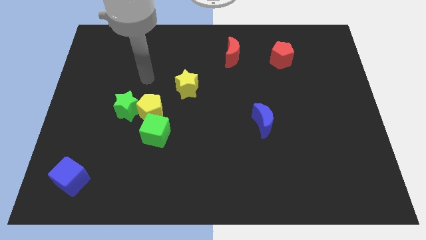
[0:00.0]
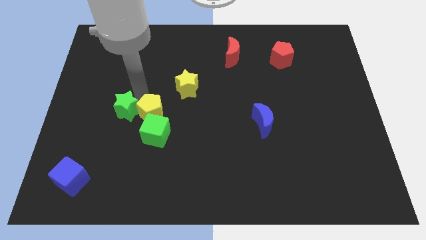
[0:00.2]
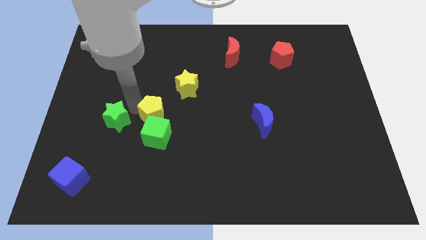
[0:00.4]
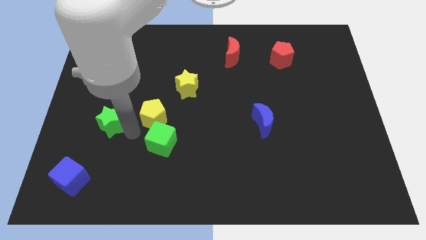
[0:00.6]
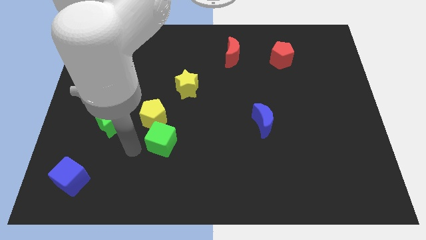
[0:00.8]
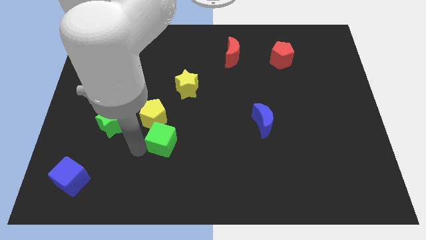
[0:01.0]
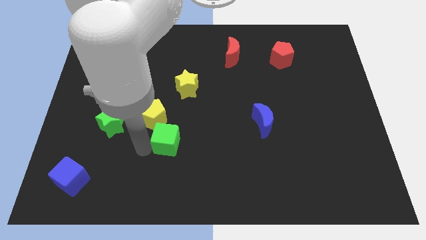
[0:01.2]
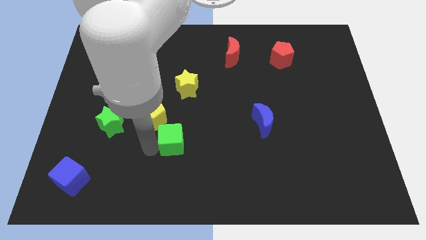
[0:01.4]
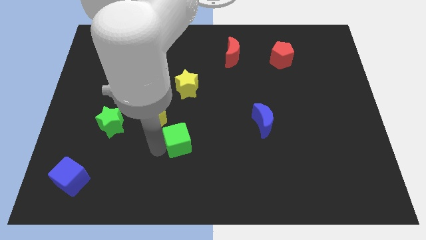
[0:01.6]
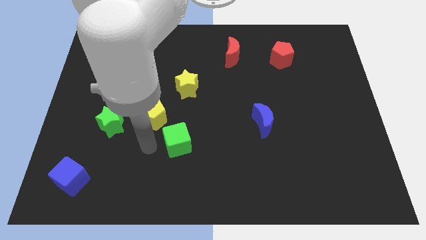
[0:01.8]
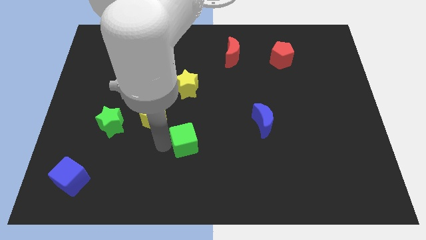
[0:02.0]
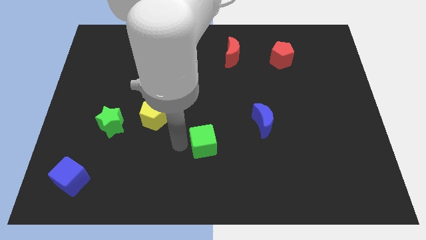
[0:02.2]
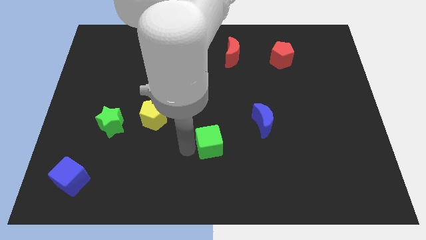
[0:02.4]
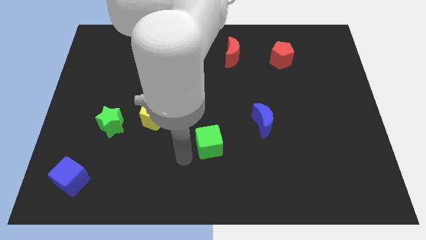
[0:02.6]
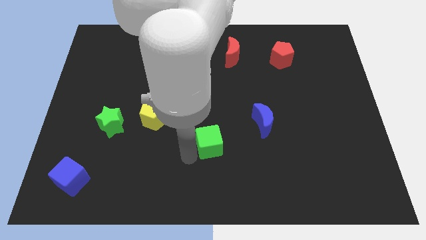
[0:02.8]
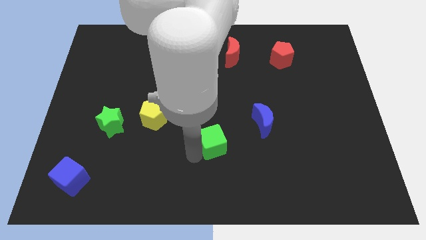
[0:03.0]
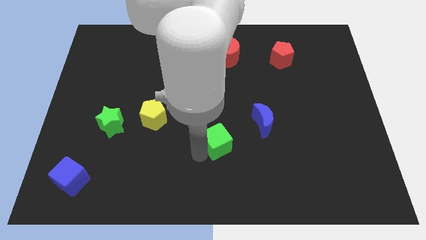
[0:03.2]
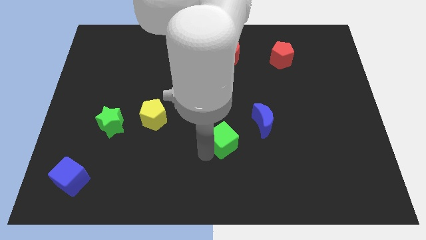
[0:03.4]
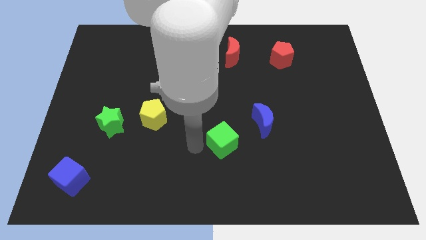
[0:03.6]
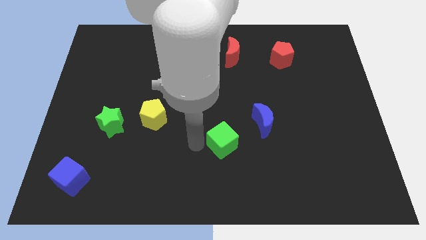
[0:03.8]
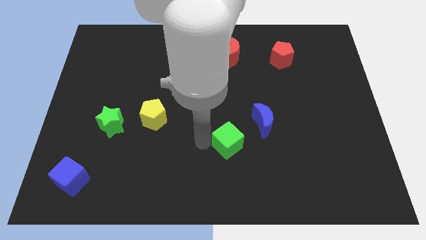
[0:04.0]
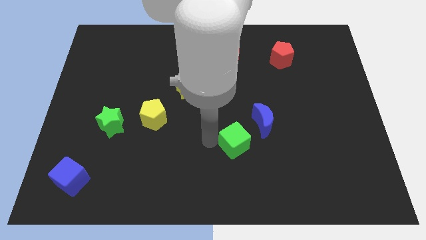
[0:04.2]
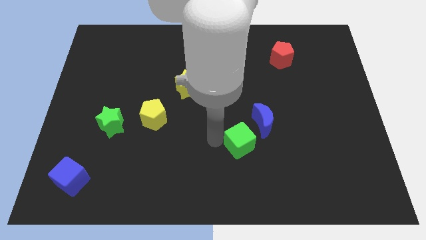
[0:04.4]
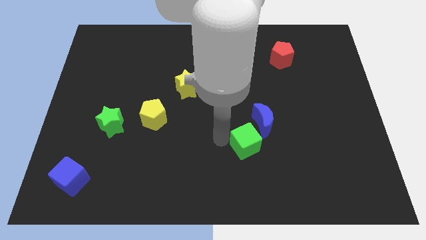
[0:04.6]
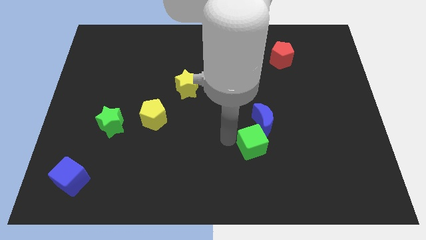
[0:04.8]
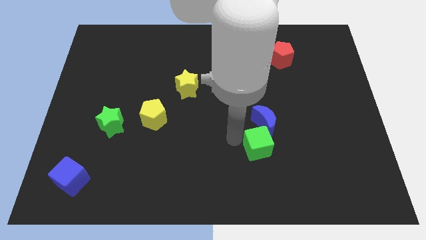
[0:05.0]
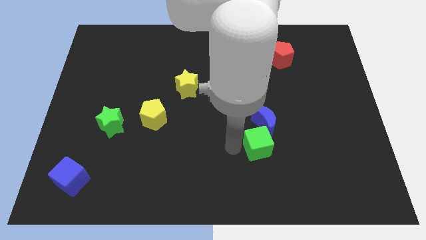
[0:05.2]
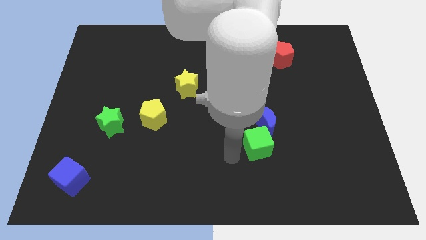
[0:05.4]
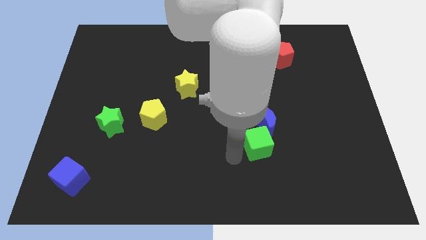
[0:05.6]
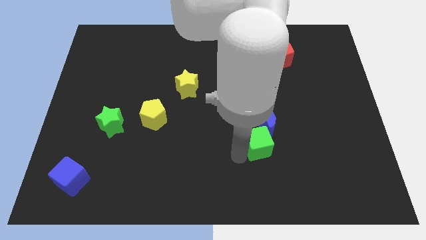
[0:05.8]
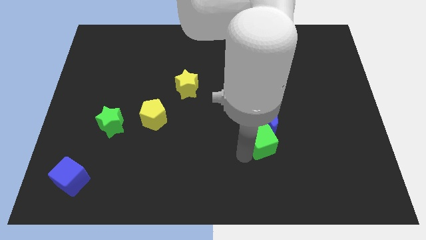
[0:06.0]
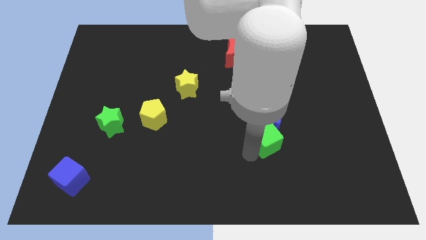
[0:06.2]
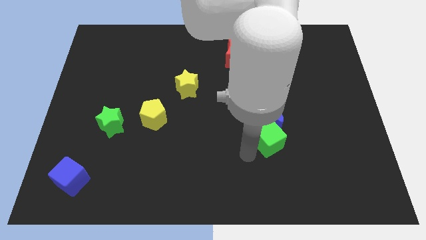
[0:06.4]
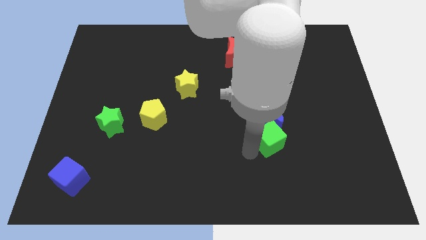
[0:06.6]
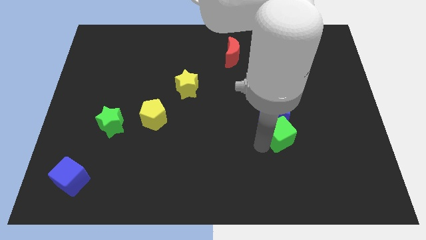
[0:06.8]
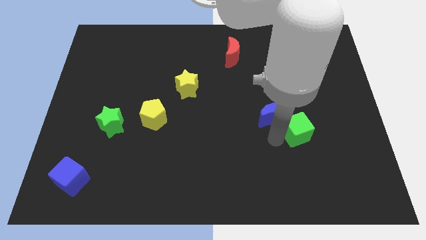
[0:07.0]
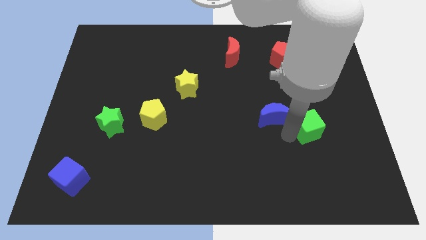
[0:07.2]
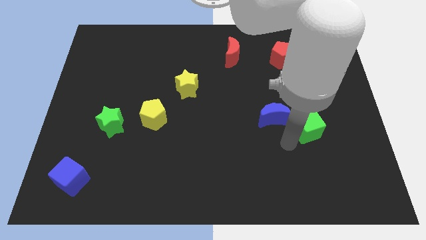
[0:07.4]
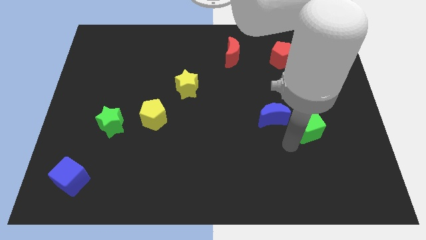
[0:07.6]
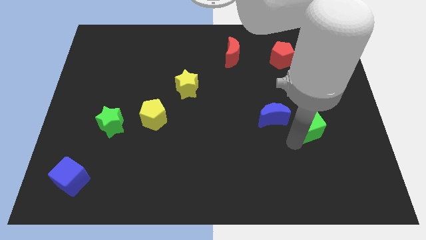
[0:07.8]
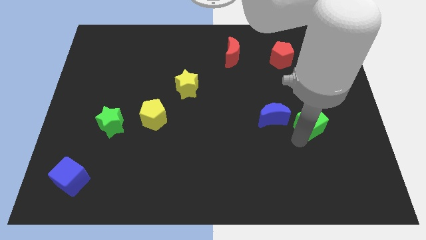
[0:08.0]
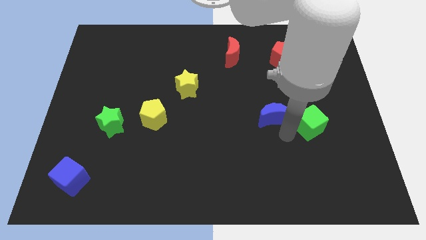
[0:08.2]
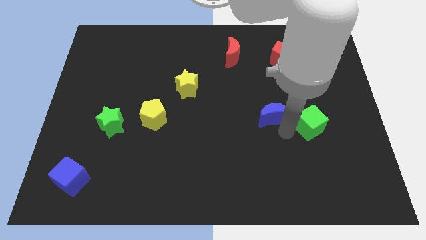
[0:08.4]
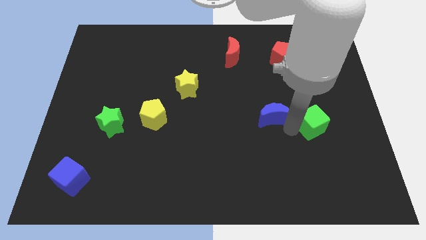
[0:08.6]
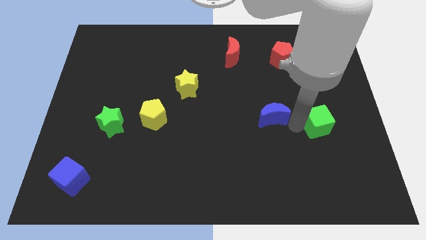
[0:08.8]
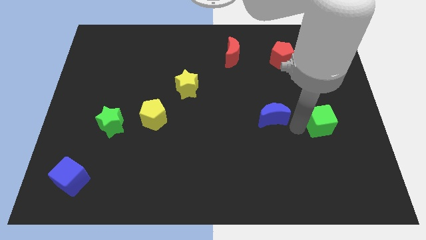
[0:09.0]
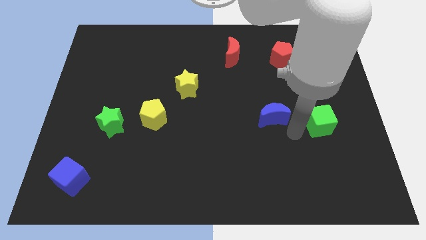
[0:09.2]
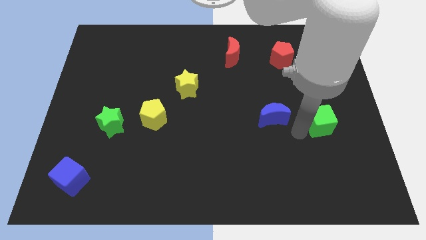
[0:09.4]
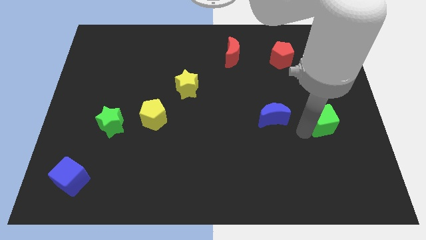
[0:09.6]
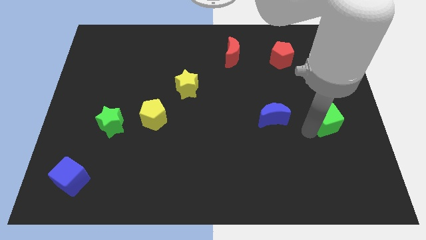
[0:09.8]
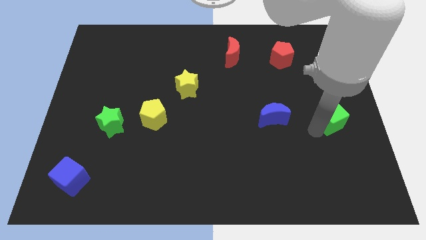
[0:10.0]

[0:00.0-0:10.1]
move the green cube to the right side of the board

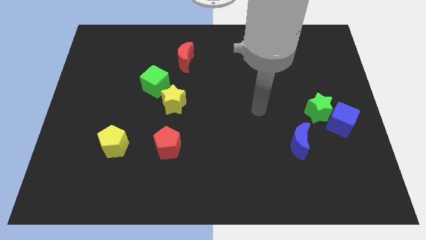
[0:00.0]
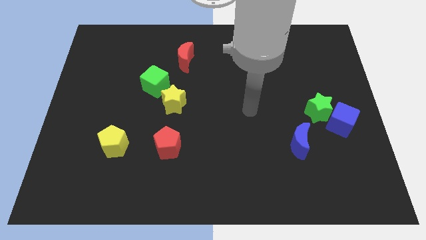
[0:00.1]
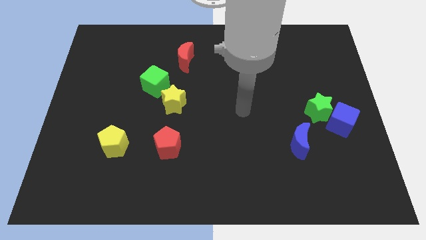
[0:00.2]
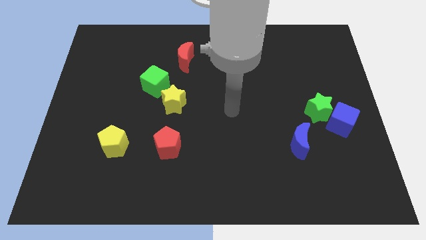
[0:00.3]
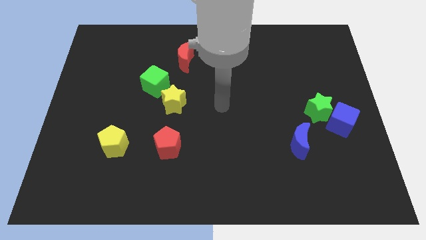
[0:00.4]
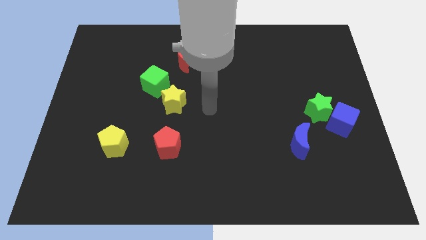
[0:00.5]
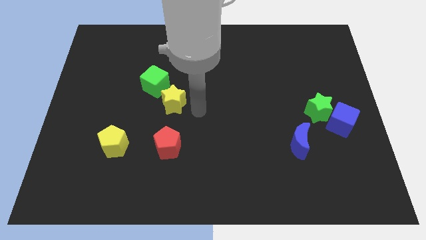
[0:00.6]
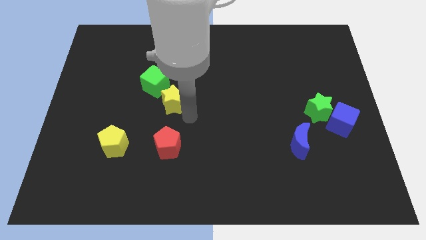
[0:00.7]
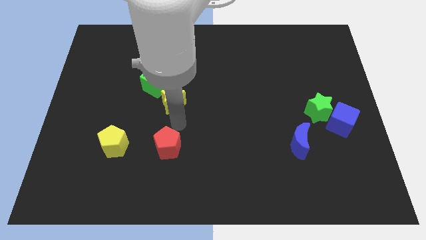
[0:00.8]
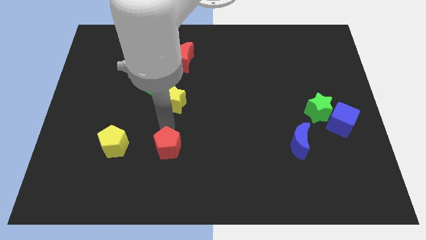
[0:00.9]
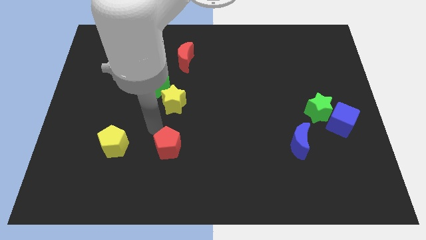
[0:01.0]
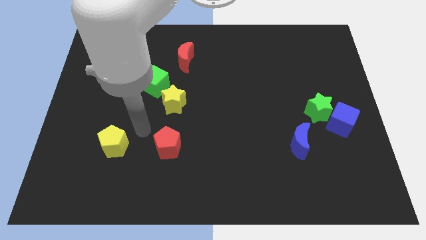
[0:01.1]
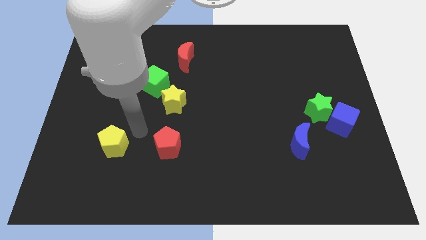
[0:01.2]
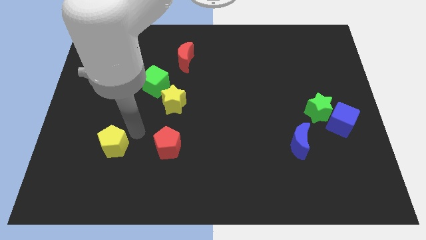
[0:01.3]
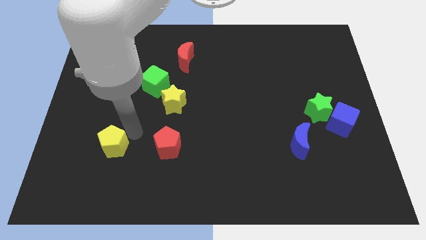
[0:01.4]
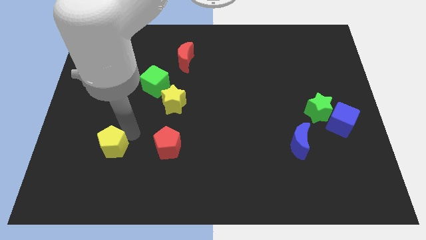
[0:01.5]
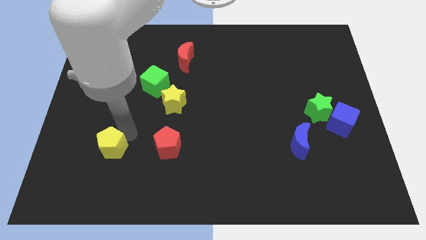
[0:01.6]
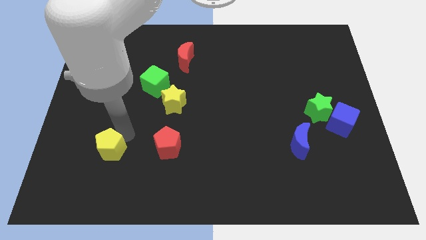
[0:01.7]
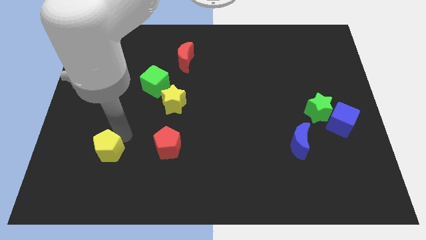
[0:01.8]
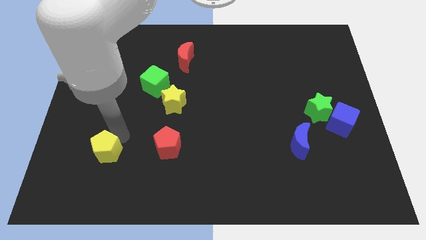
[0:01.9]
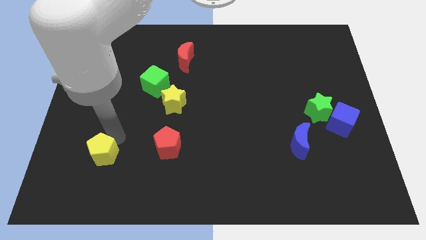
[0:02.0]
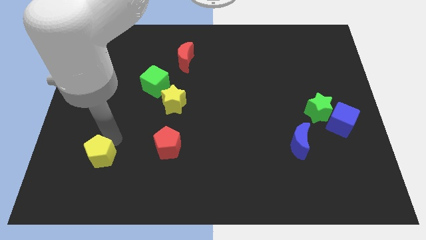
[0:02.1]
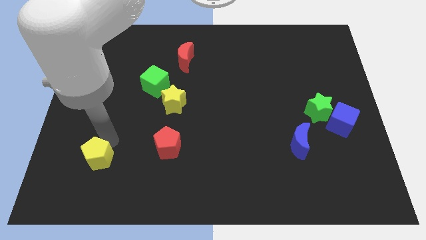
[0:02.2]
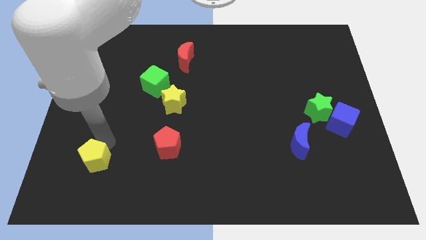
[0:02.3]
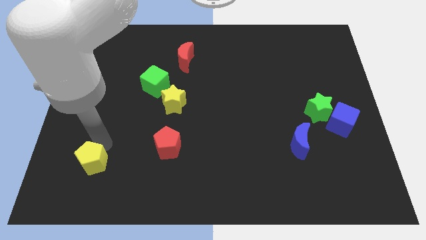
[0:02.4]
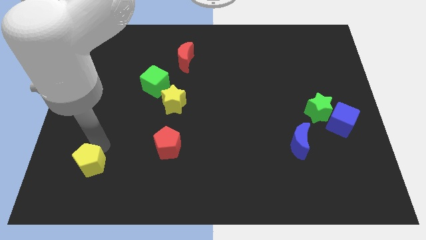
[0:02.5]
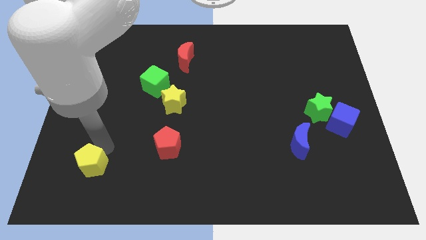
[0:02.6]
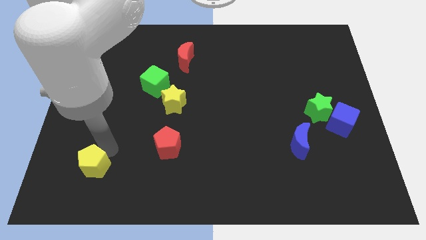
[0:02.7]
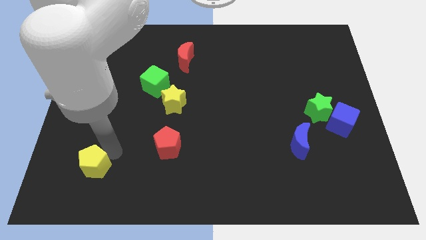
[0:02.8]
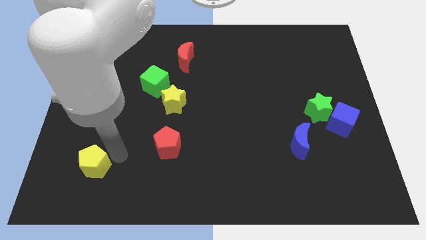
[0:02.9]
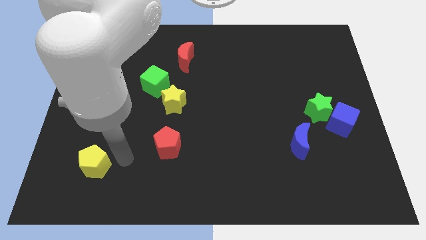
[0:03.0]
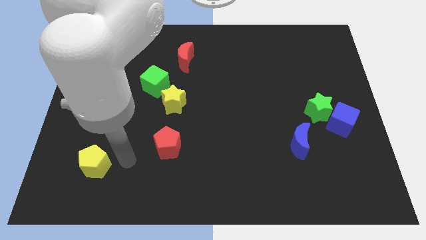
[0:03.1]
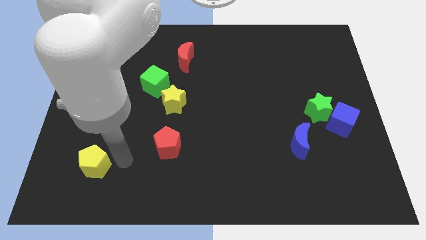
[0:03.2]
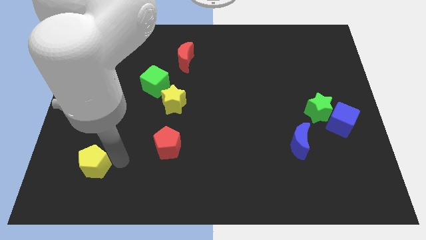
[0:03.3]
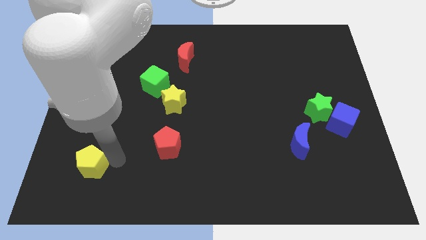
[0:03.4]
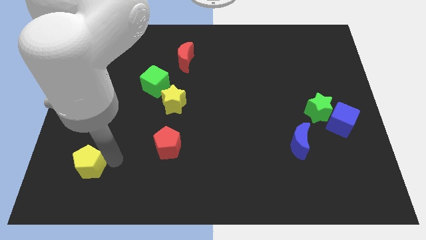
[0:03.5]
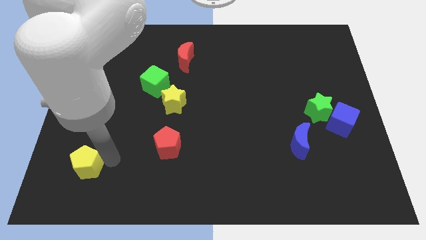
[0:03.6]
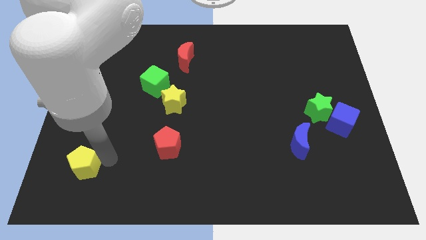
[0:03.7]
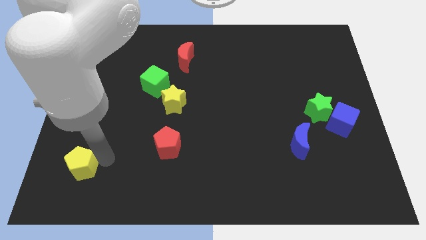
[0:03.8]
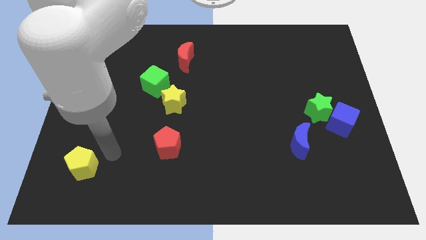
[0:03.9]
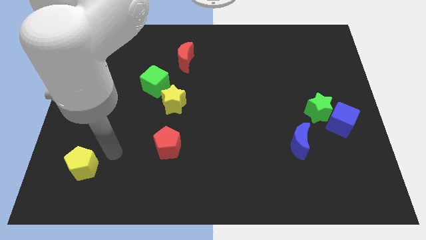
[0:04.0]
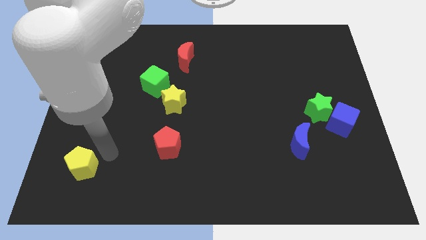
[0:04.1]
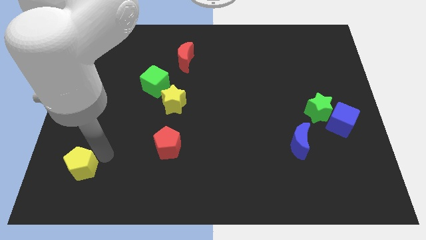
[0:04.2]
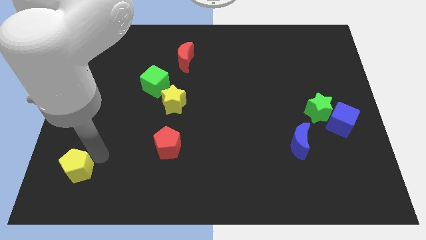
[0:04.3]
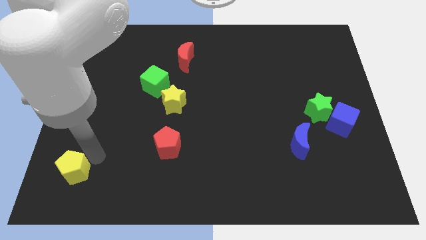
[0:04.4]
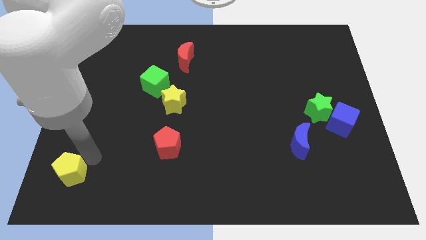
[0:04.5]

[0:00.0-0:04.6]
push the yellow pentagon to the bottom left
